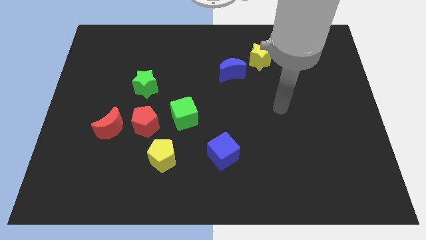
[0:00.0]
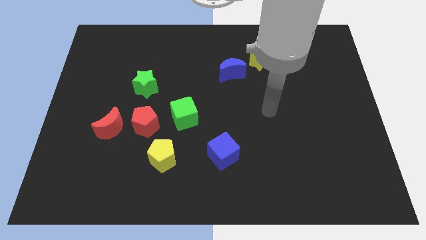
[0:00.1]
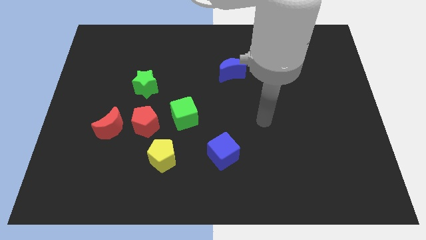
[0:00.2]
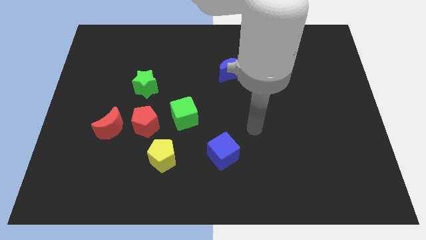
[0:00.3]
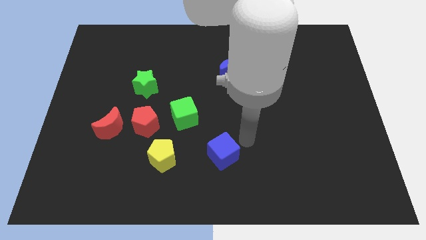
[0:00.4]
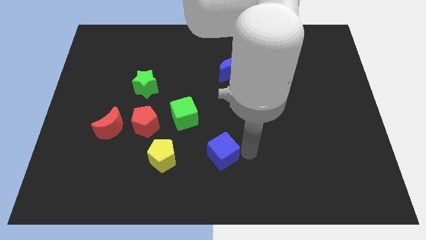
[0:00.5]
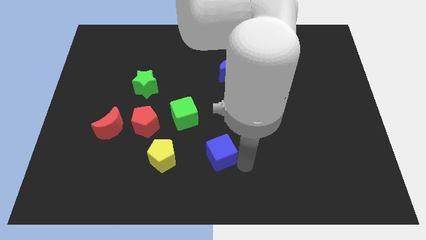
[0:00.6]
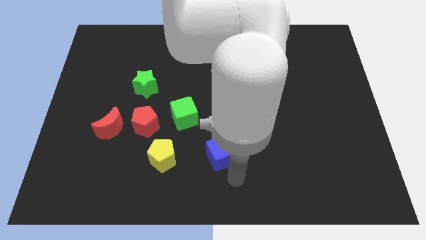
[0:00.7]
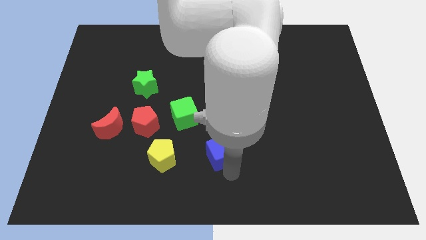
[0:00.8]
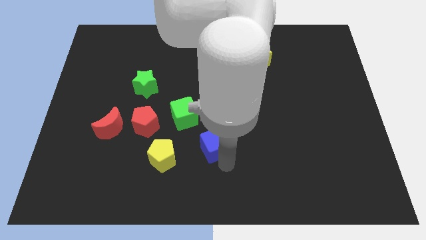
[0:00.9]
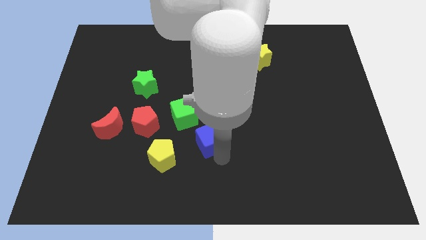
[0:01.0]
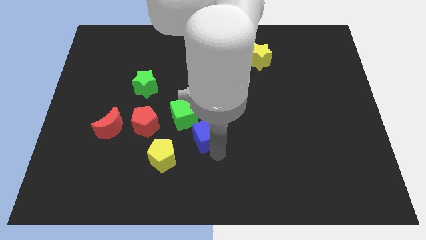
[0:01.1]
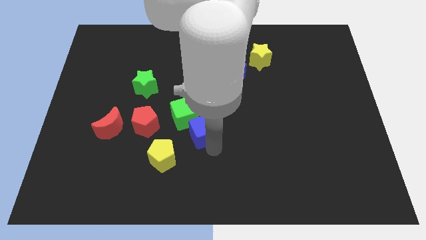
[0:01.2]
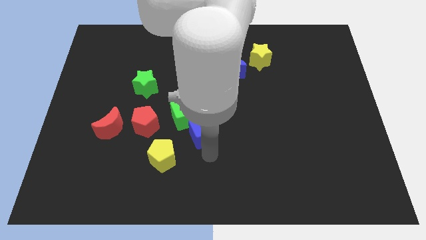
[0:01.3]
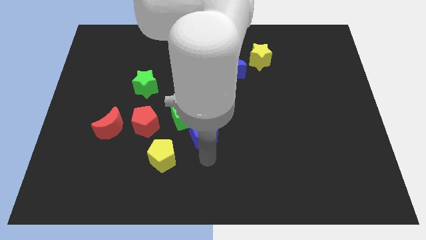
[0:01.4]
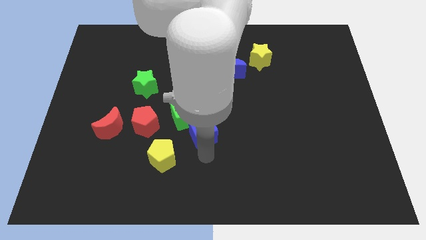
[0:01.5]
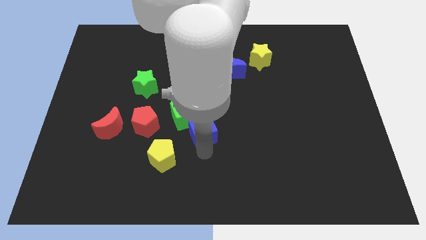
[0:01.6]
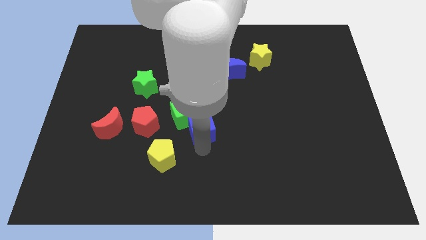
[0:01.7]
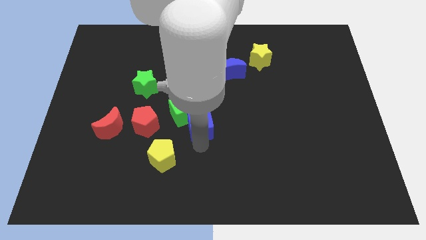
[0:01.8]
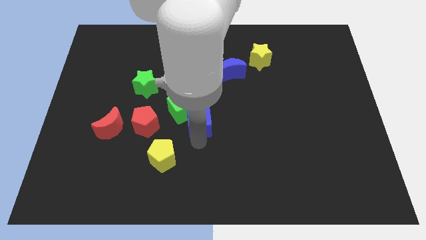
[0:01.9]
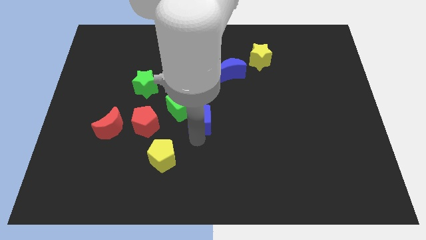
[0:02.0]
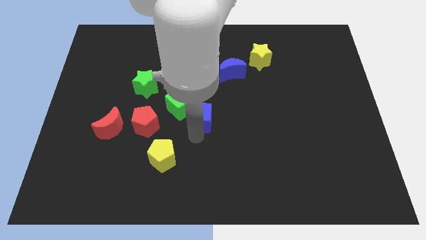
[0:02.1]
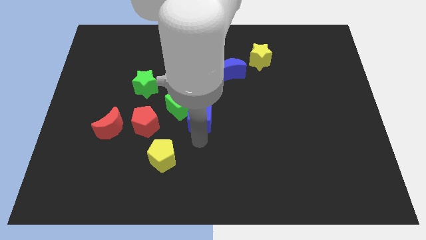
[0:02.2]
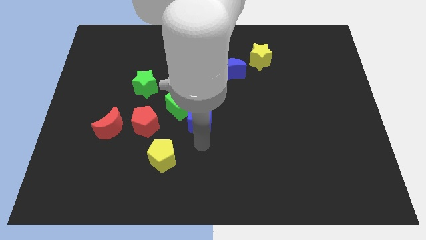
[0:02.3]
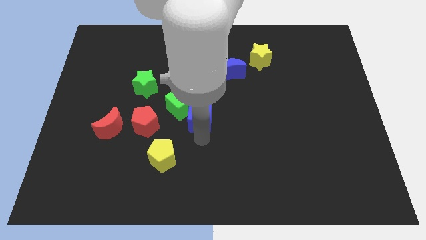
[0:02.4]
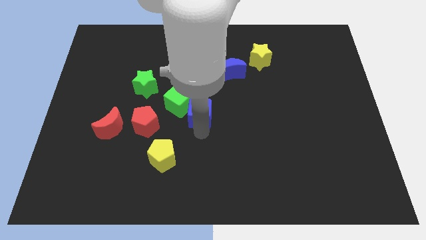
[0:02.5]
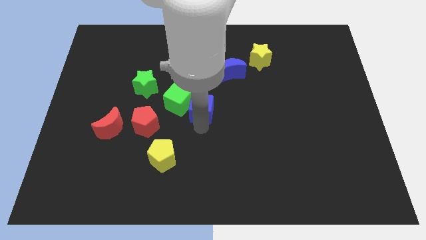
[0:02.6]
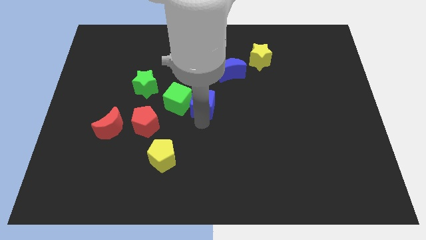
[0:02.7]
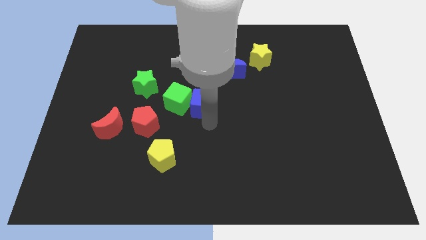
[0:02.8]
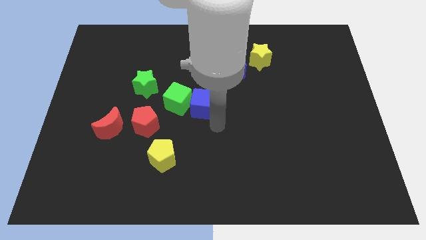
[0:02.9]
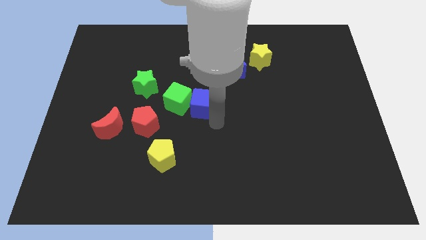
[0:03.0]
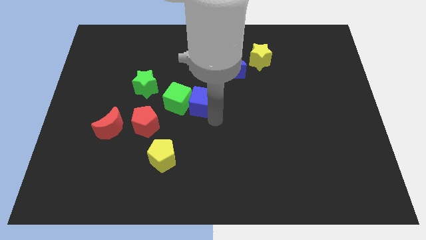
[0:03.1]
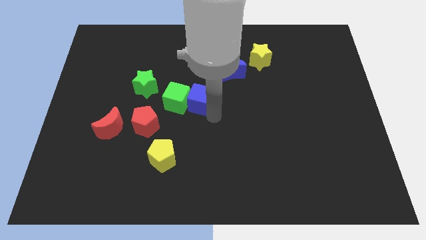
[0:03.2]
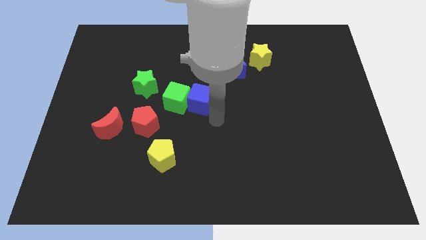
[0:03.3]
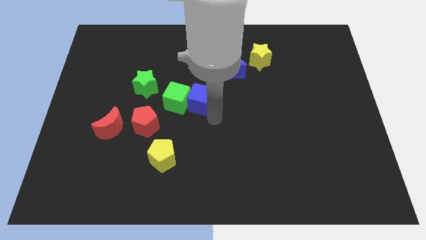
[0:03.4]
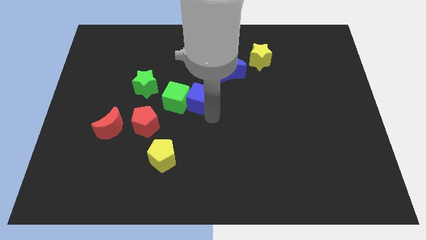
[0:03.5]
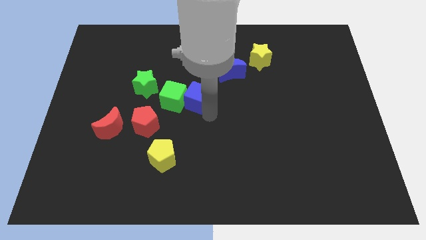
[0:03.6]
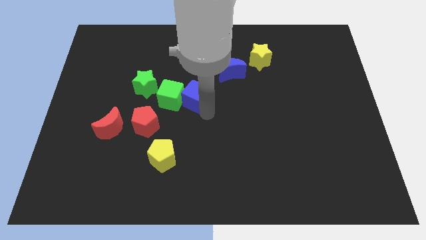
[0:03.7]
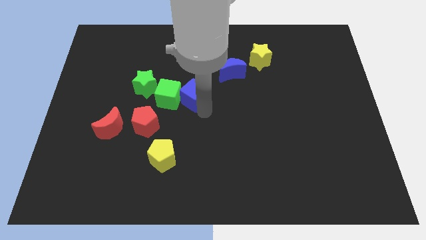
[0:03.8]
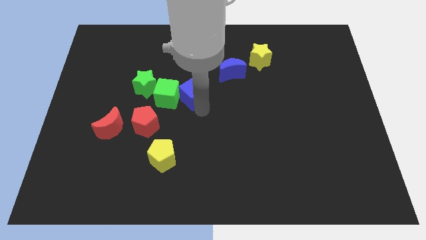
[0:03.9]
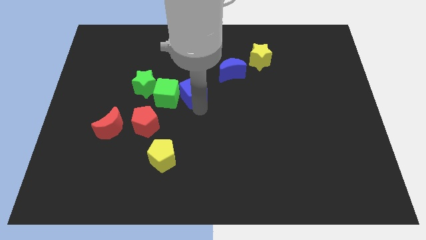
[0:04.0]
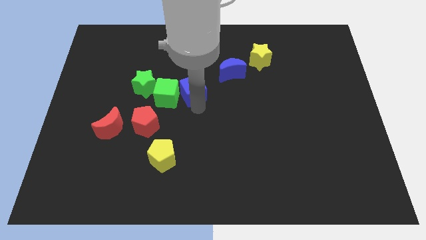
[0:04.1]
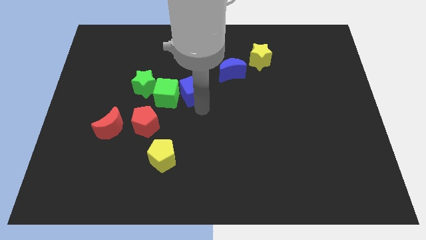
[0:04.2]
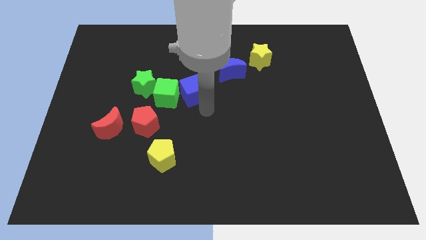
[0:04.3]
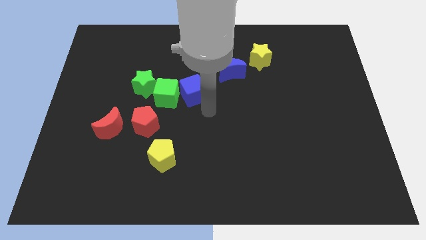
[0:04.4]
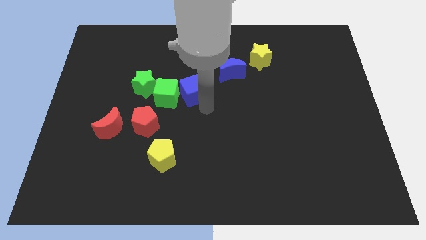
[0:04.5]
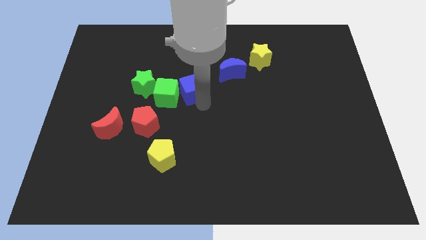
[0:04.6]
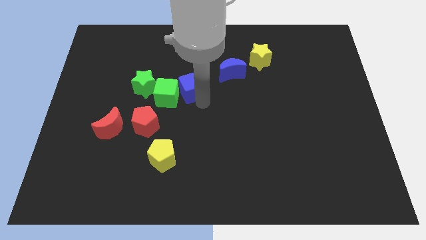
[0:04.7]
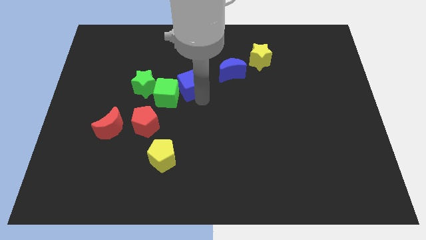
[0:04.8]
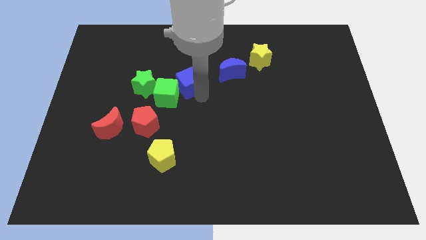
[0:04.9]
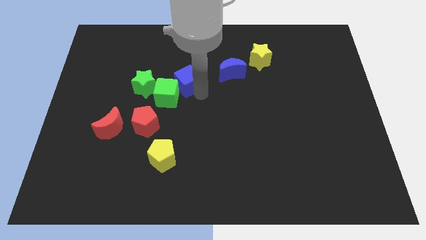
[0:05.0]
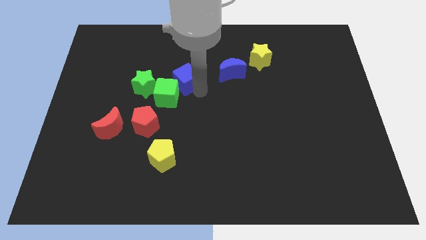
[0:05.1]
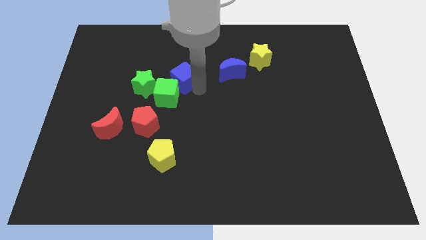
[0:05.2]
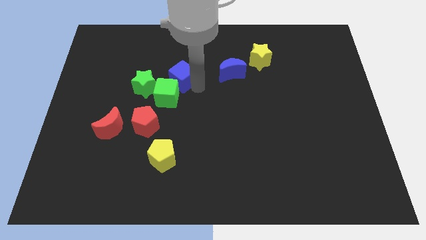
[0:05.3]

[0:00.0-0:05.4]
move the blue cube diagonally up and to the right of the green star

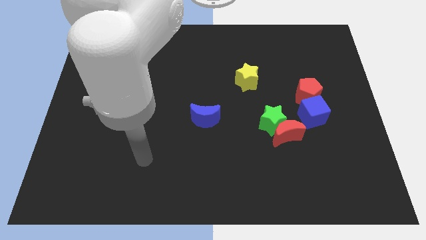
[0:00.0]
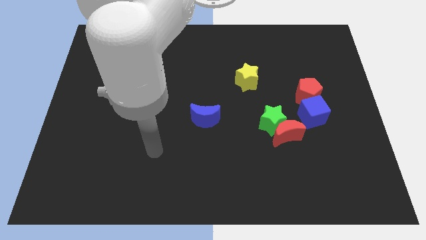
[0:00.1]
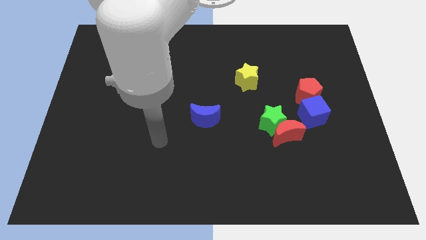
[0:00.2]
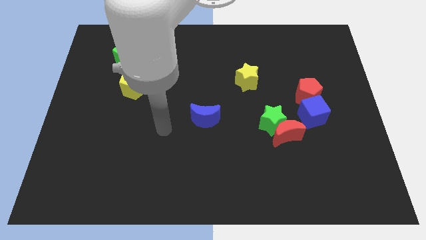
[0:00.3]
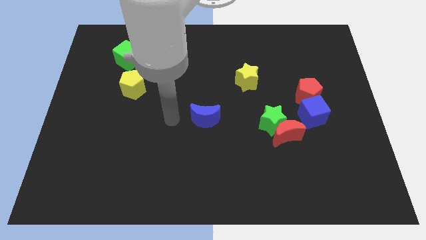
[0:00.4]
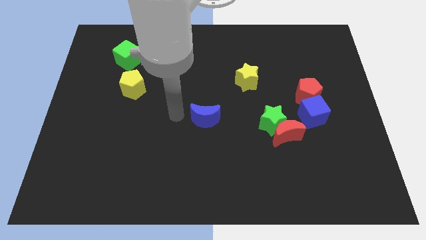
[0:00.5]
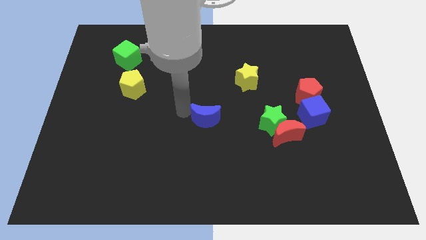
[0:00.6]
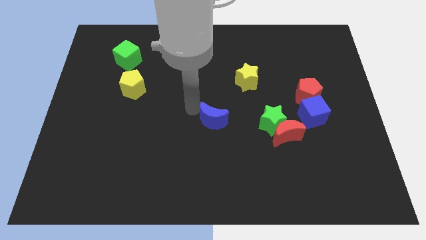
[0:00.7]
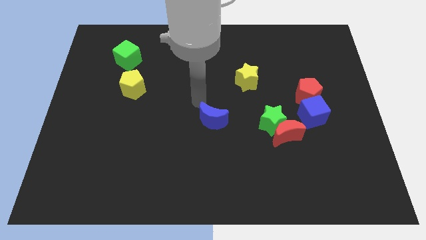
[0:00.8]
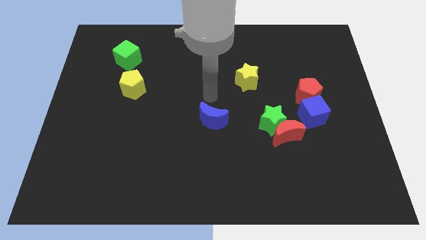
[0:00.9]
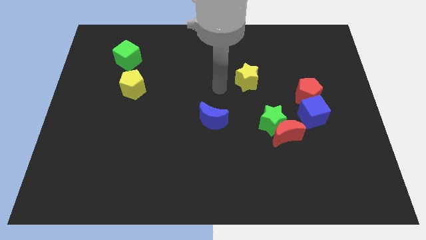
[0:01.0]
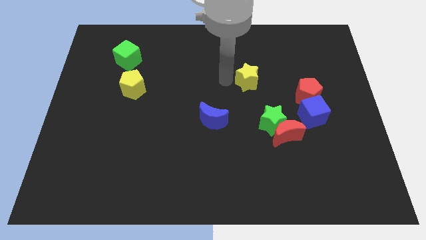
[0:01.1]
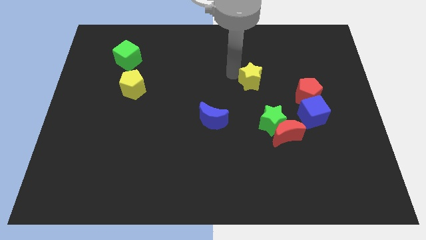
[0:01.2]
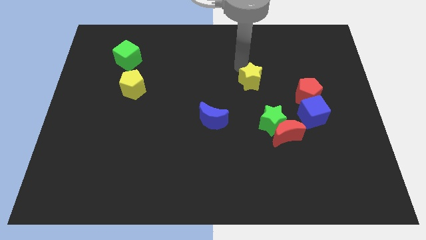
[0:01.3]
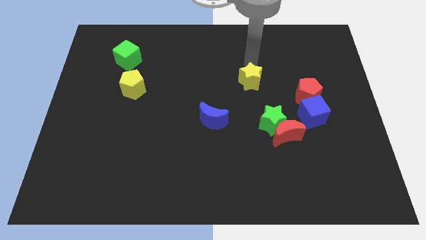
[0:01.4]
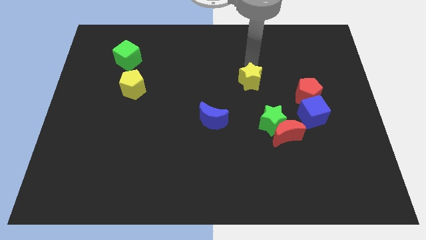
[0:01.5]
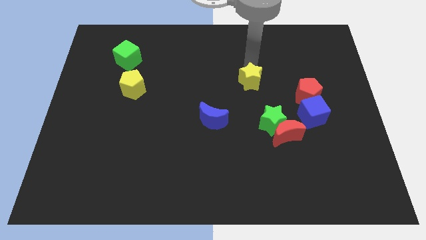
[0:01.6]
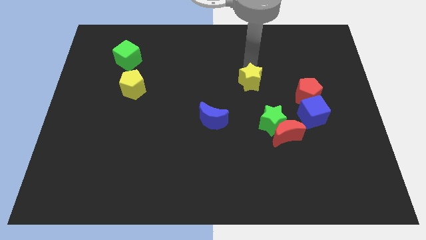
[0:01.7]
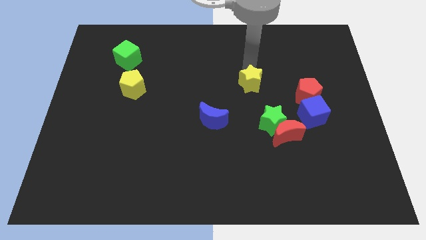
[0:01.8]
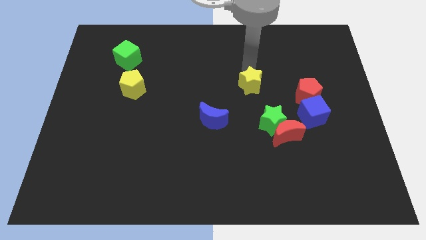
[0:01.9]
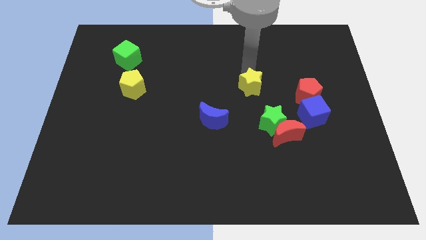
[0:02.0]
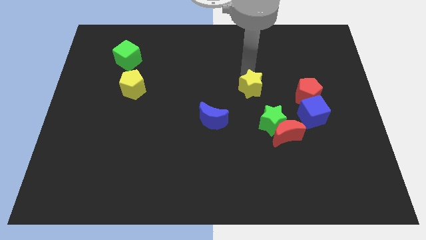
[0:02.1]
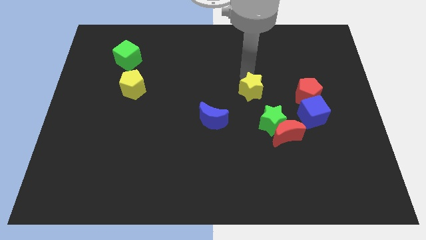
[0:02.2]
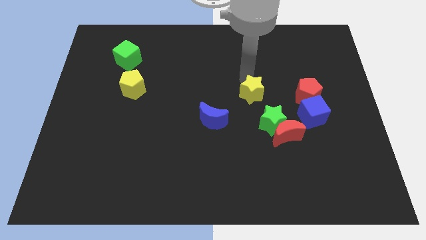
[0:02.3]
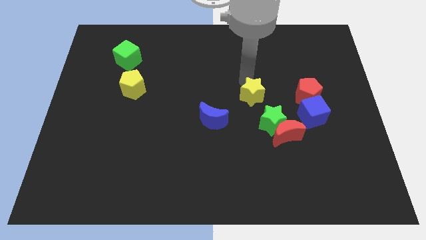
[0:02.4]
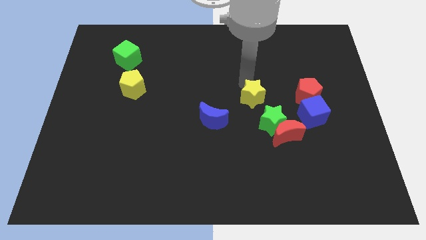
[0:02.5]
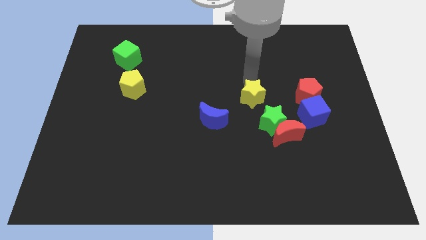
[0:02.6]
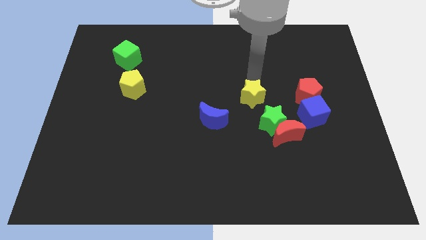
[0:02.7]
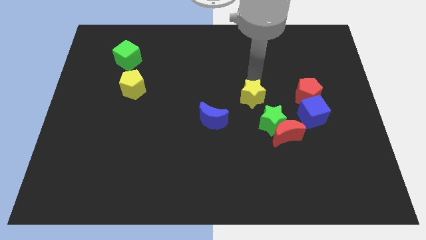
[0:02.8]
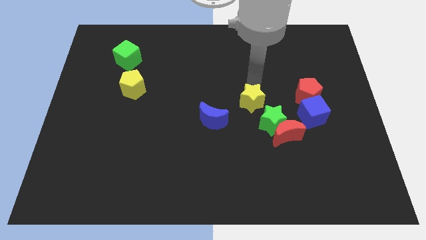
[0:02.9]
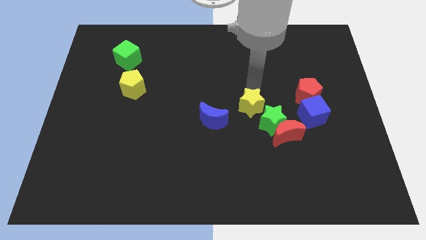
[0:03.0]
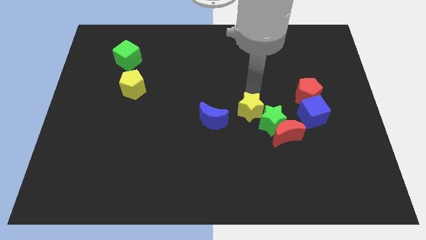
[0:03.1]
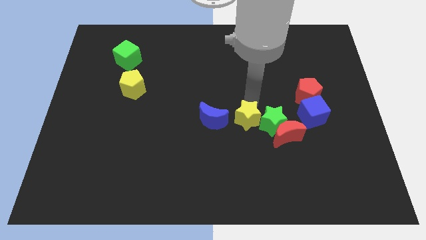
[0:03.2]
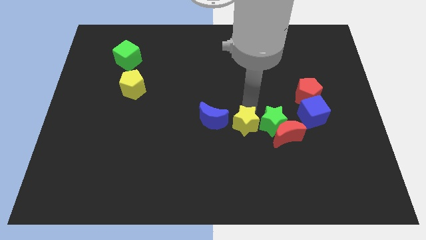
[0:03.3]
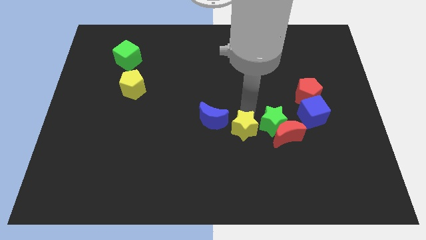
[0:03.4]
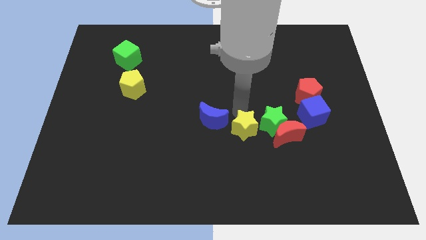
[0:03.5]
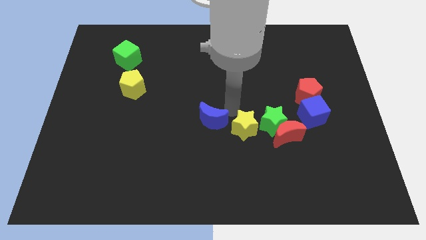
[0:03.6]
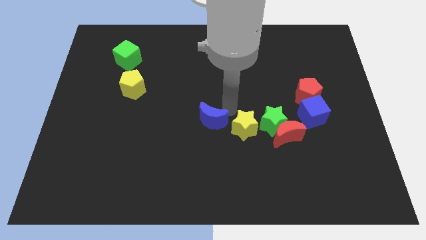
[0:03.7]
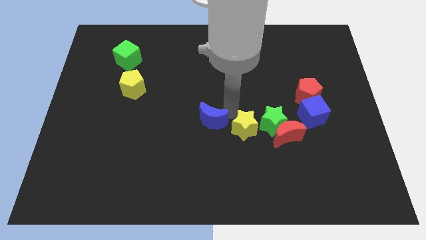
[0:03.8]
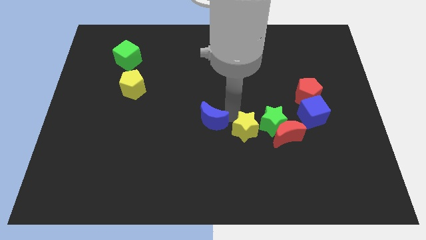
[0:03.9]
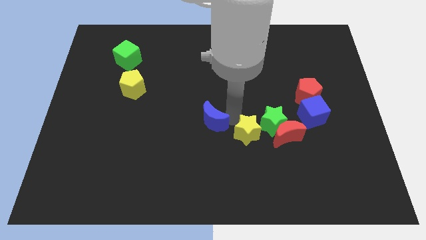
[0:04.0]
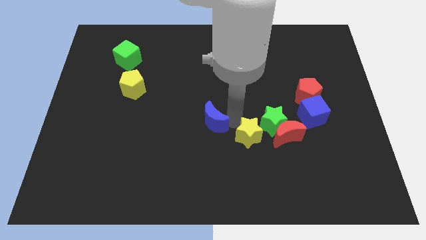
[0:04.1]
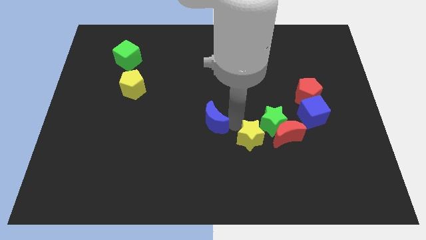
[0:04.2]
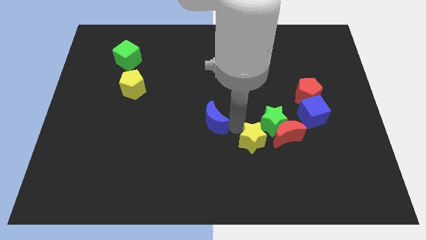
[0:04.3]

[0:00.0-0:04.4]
put the yellow star to the bottom left of the red moon
